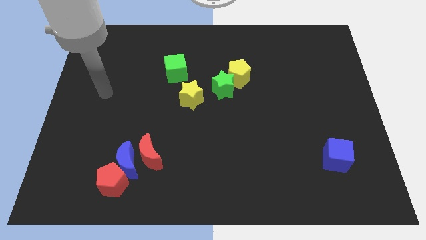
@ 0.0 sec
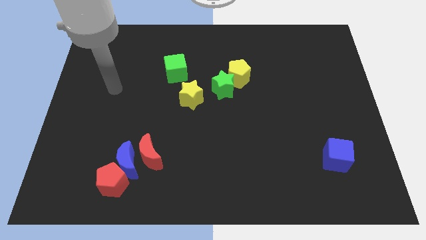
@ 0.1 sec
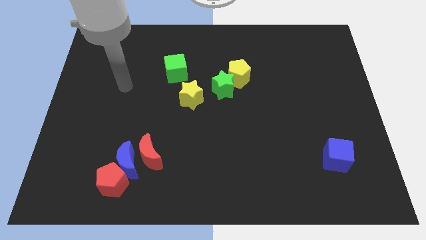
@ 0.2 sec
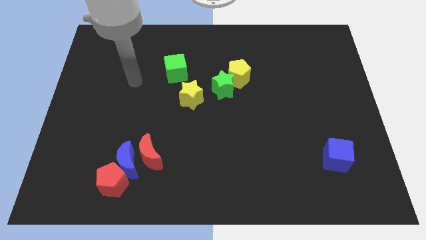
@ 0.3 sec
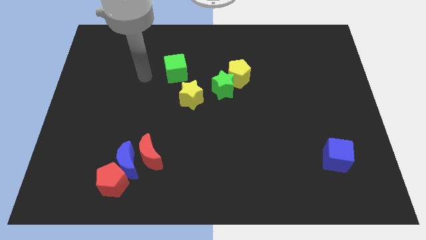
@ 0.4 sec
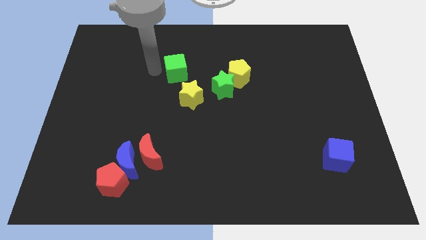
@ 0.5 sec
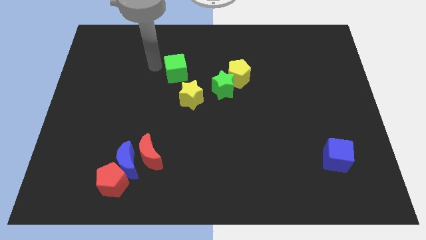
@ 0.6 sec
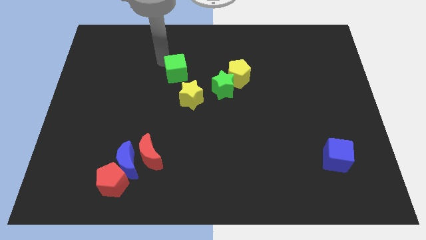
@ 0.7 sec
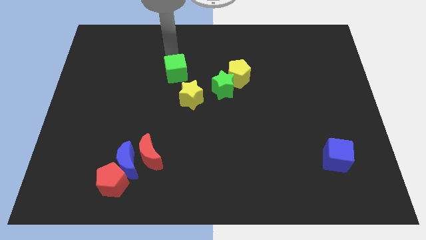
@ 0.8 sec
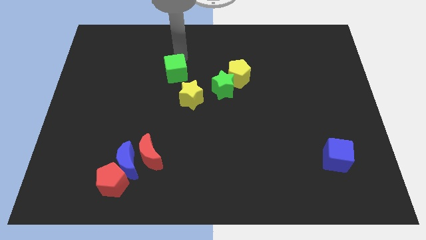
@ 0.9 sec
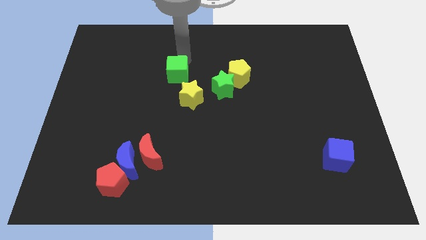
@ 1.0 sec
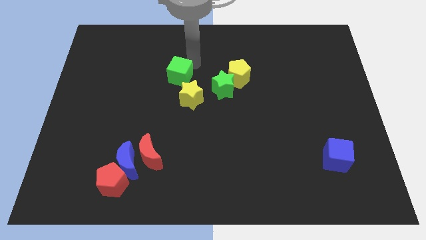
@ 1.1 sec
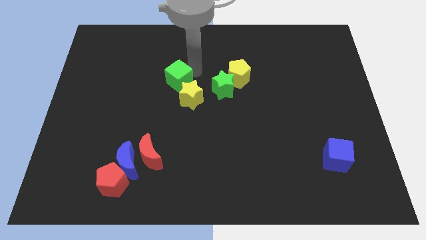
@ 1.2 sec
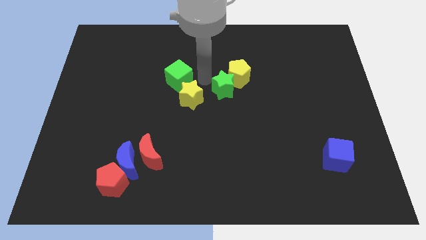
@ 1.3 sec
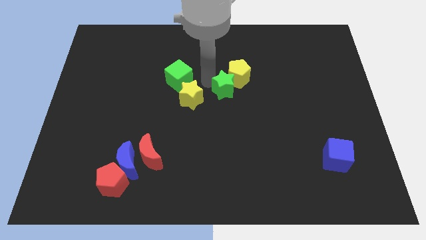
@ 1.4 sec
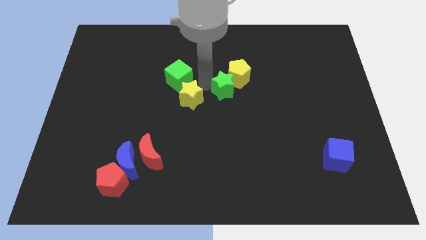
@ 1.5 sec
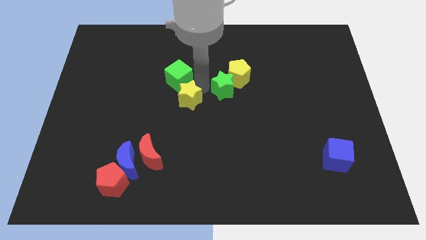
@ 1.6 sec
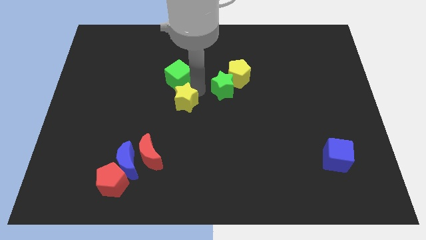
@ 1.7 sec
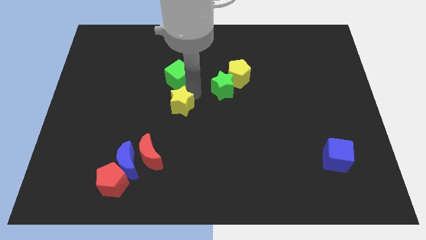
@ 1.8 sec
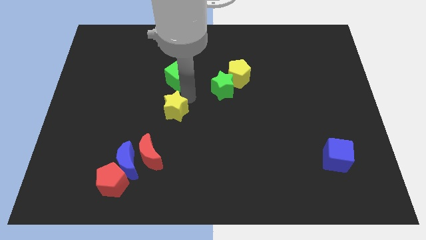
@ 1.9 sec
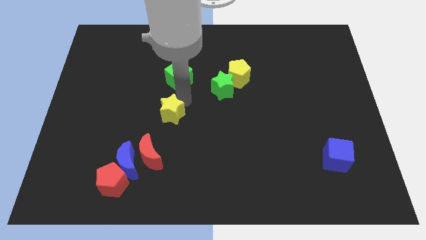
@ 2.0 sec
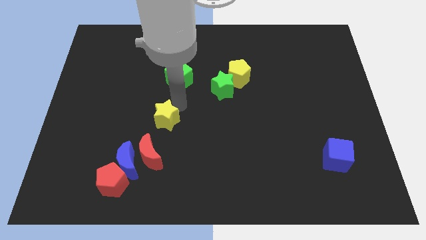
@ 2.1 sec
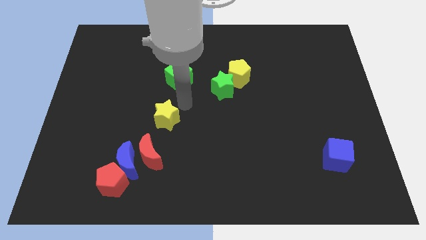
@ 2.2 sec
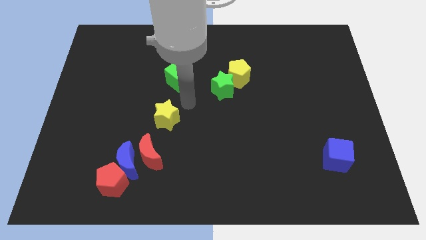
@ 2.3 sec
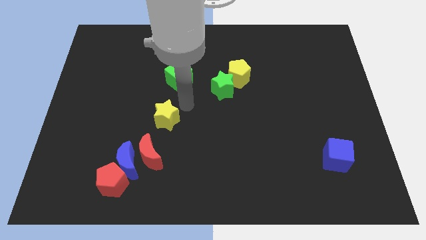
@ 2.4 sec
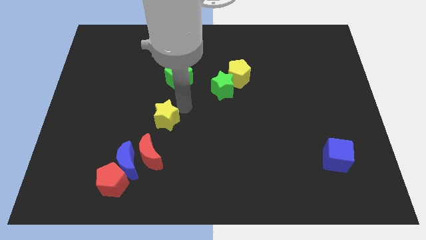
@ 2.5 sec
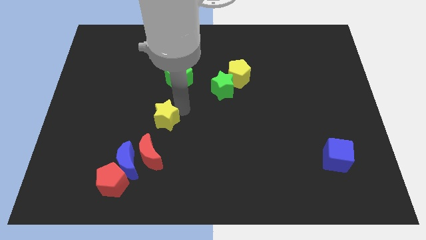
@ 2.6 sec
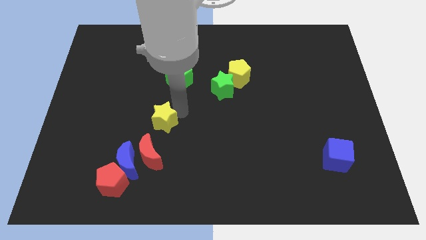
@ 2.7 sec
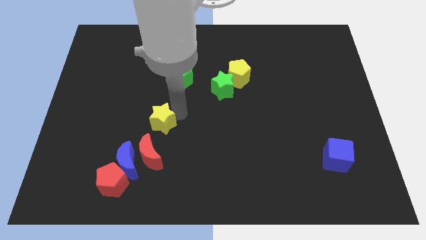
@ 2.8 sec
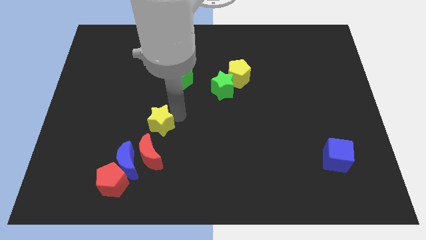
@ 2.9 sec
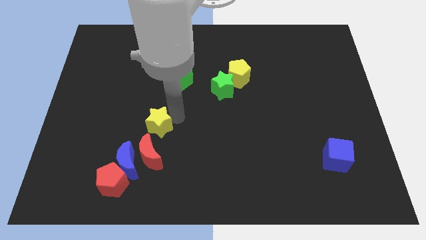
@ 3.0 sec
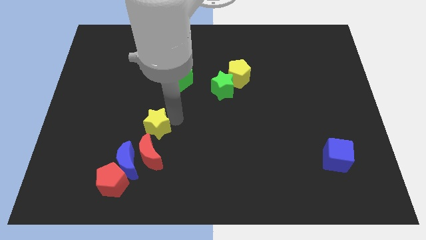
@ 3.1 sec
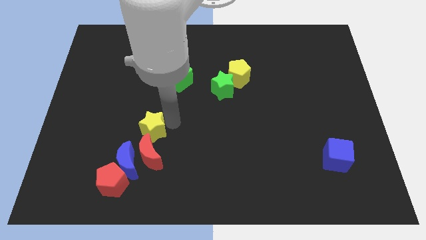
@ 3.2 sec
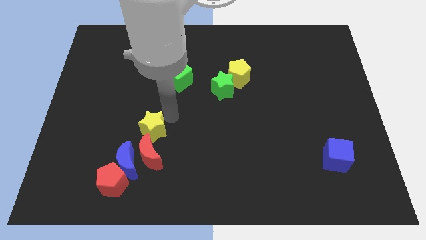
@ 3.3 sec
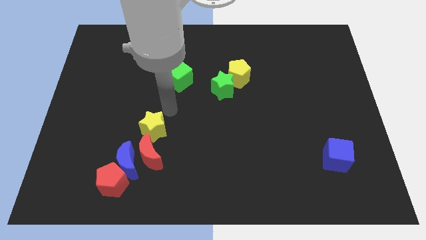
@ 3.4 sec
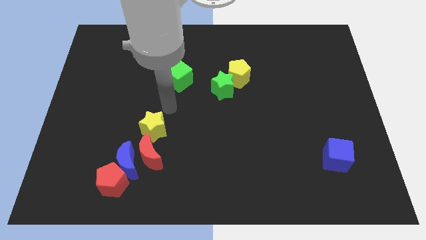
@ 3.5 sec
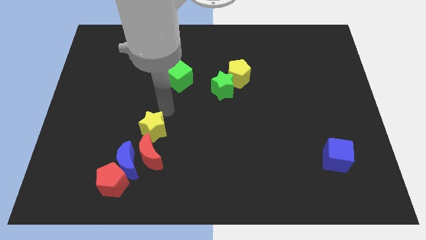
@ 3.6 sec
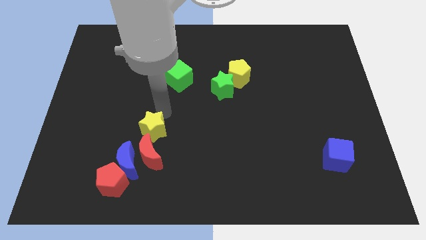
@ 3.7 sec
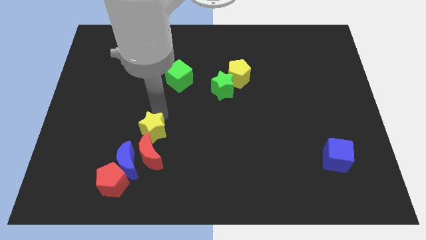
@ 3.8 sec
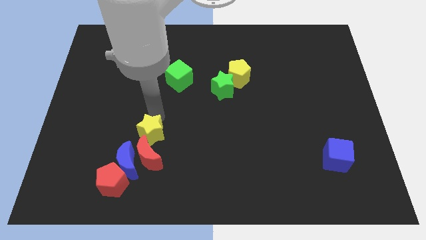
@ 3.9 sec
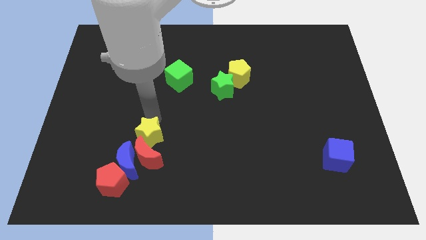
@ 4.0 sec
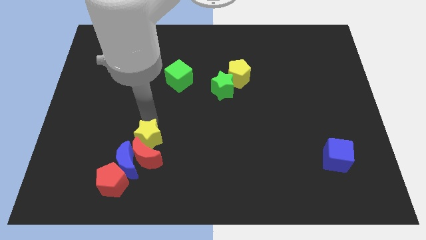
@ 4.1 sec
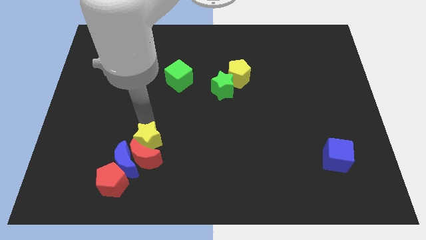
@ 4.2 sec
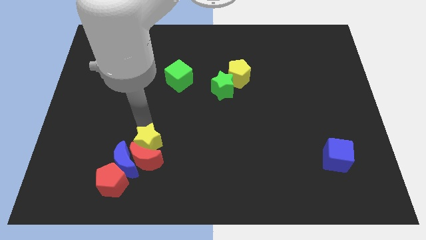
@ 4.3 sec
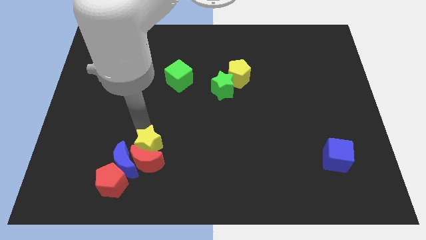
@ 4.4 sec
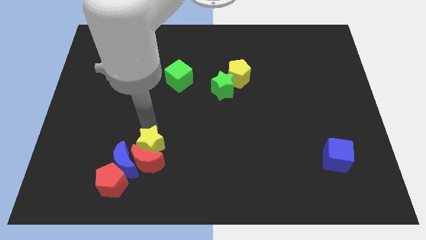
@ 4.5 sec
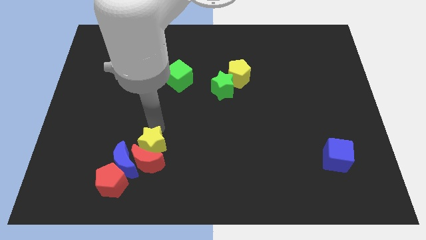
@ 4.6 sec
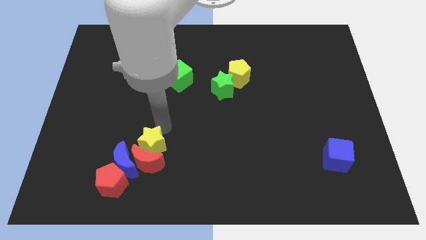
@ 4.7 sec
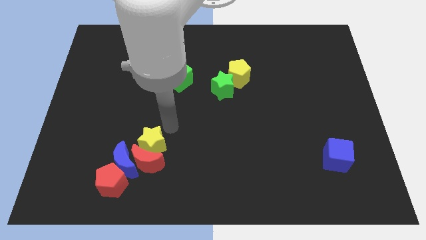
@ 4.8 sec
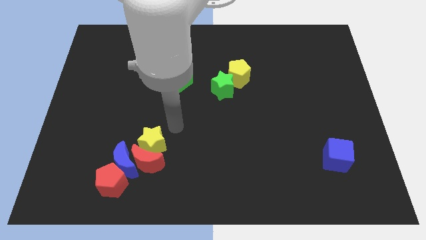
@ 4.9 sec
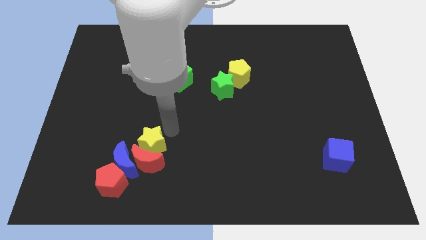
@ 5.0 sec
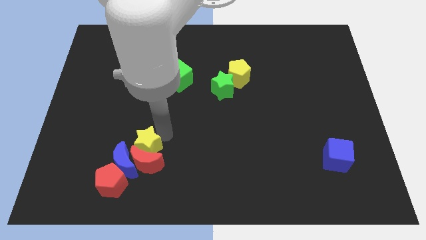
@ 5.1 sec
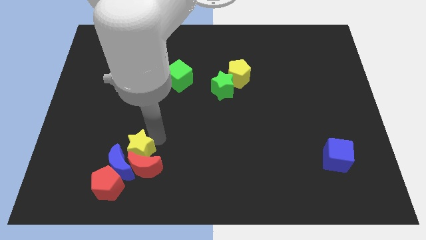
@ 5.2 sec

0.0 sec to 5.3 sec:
move the yellow star next to the blue moon

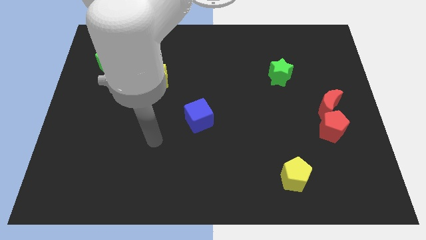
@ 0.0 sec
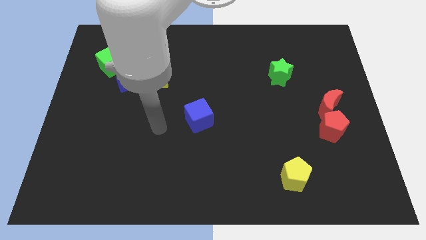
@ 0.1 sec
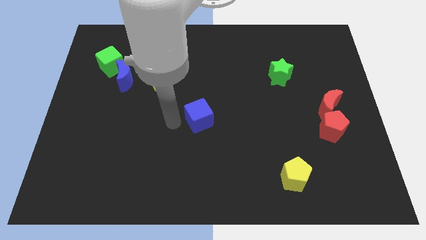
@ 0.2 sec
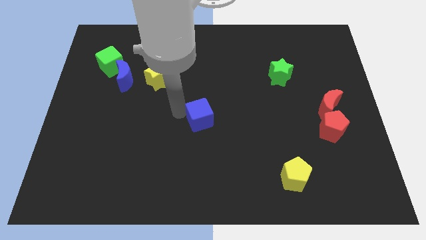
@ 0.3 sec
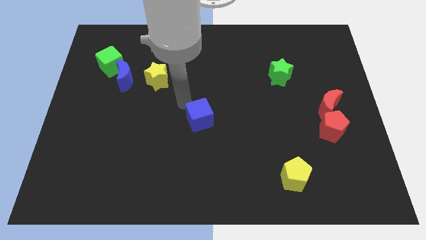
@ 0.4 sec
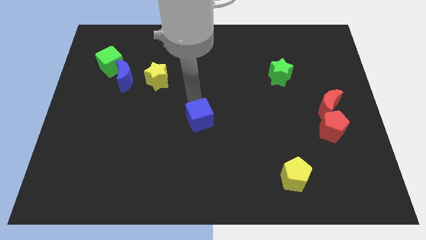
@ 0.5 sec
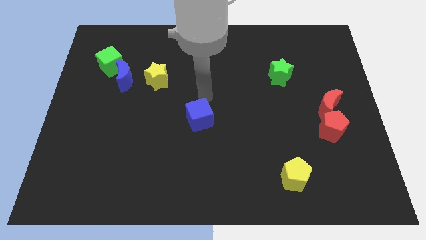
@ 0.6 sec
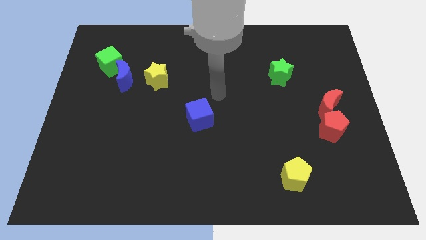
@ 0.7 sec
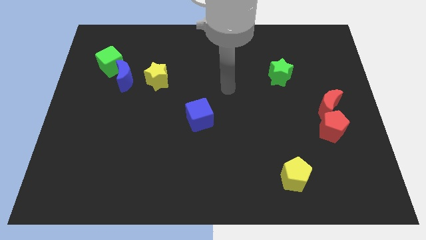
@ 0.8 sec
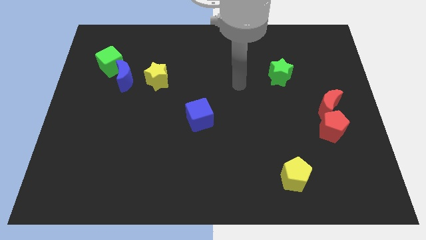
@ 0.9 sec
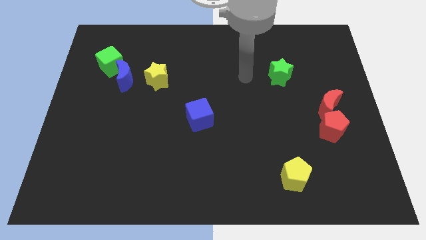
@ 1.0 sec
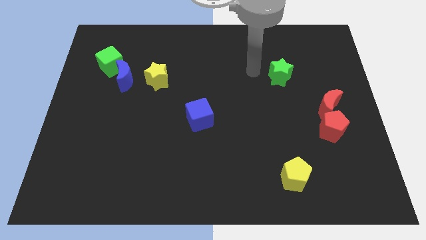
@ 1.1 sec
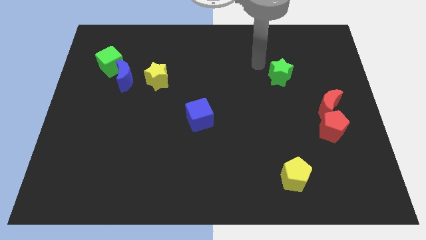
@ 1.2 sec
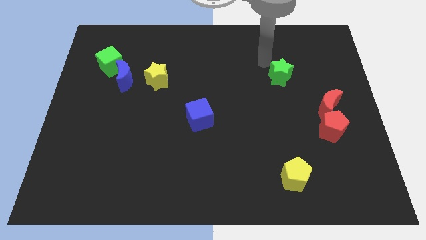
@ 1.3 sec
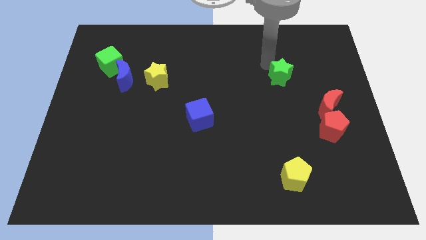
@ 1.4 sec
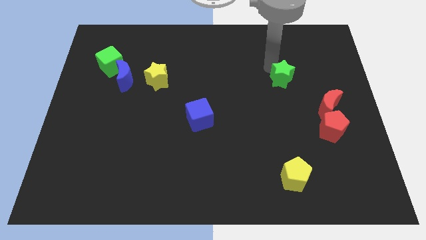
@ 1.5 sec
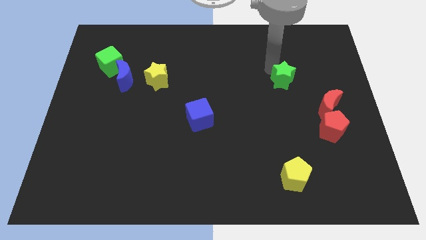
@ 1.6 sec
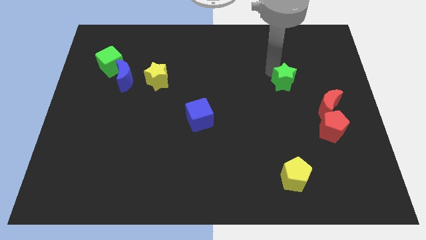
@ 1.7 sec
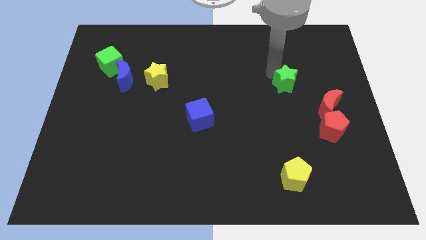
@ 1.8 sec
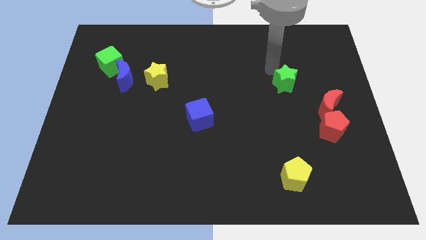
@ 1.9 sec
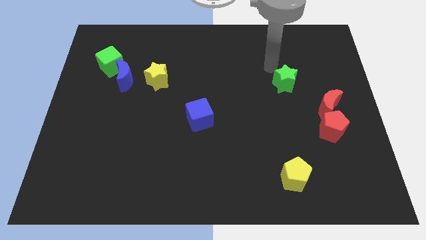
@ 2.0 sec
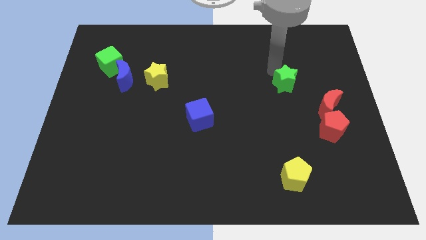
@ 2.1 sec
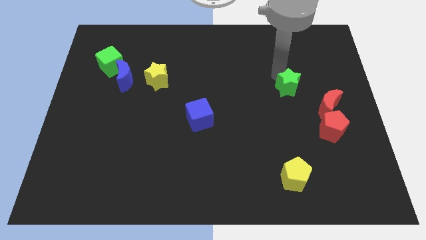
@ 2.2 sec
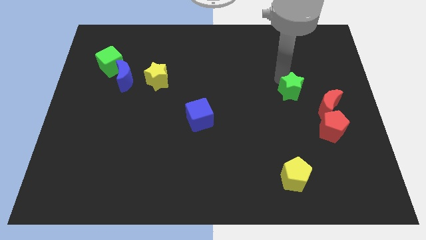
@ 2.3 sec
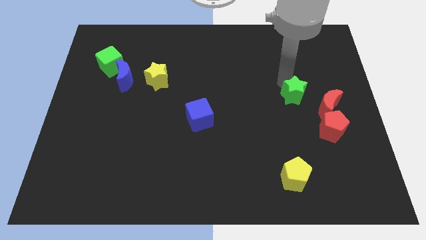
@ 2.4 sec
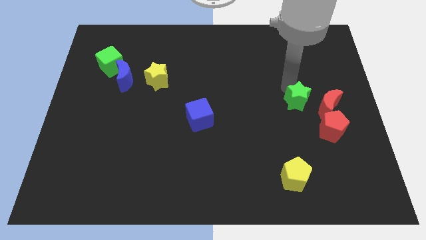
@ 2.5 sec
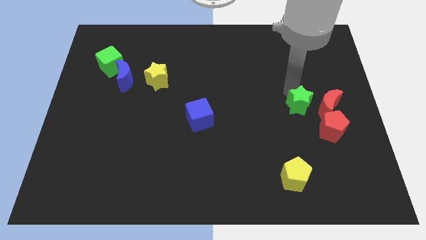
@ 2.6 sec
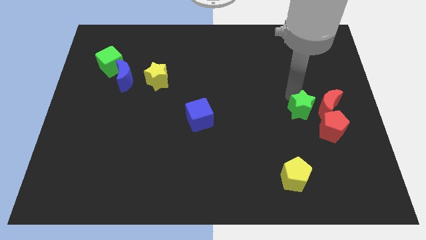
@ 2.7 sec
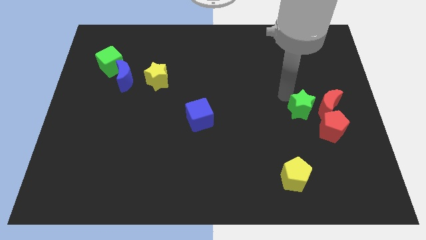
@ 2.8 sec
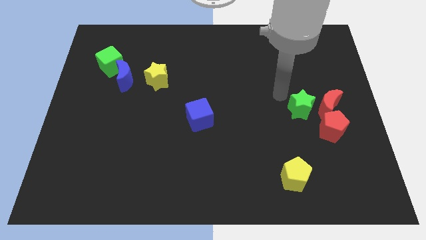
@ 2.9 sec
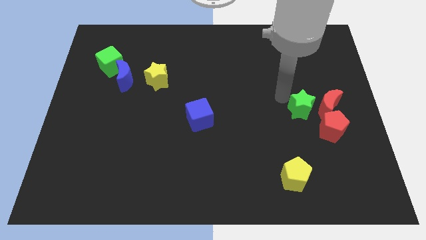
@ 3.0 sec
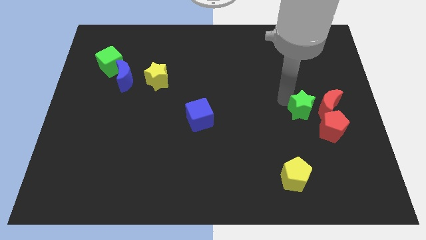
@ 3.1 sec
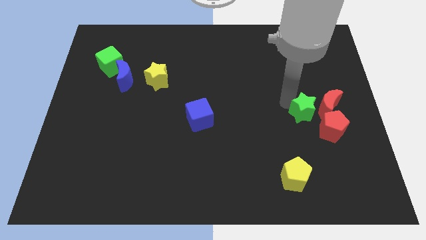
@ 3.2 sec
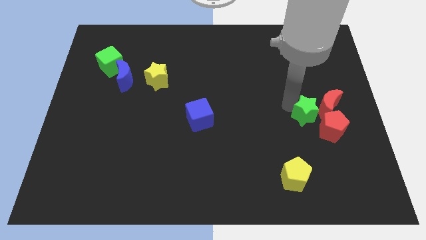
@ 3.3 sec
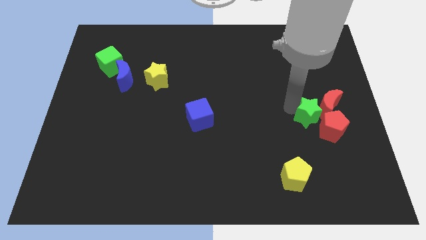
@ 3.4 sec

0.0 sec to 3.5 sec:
push the green star close to the red pentagon
